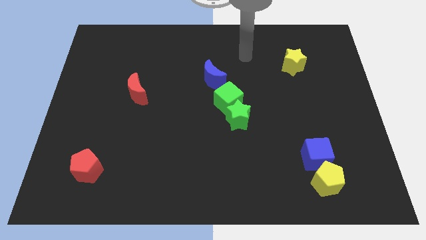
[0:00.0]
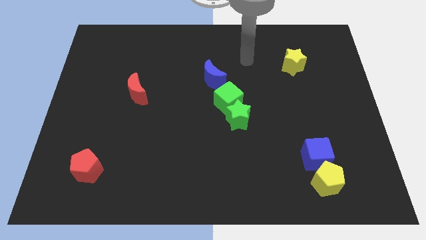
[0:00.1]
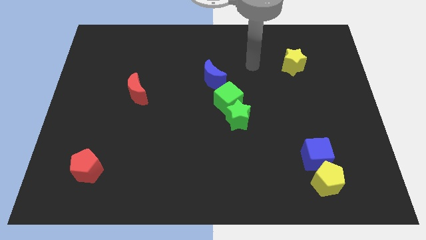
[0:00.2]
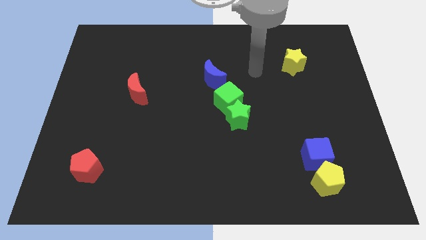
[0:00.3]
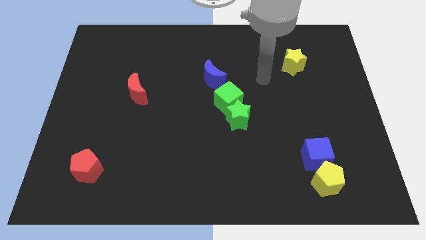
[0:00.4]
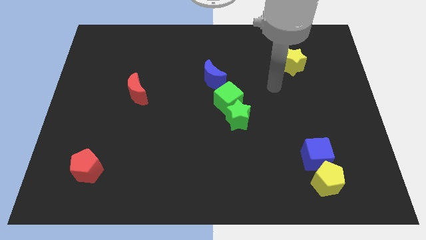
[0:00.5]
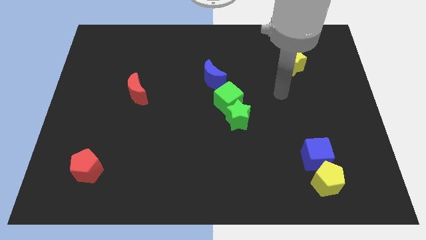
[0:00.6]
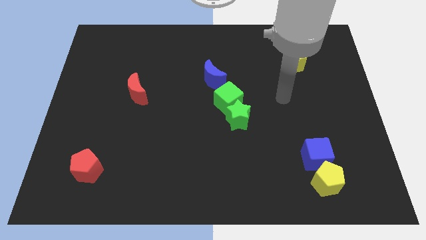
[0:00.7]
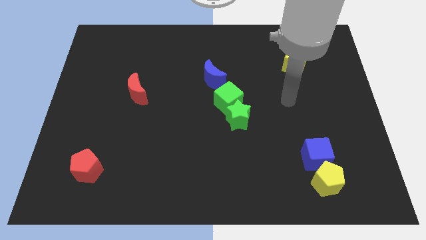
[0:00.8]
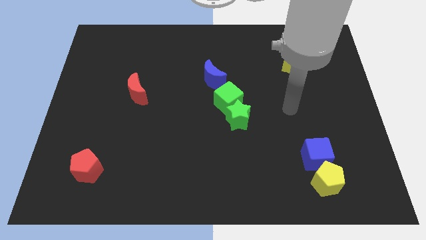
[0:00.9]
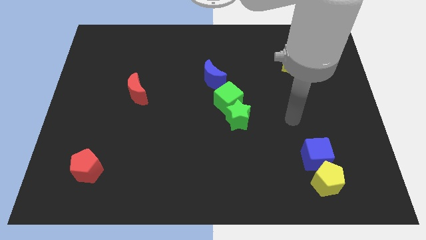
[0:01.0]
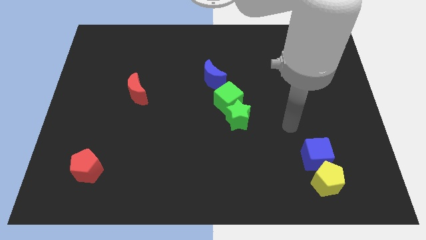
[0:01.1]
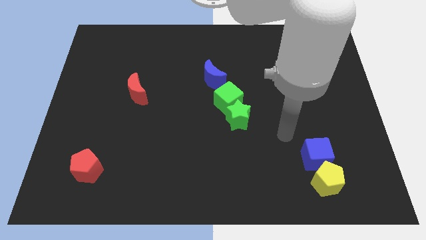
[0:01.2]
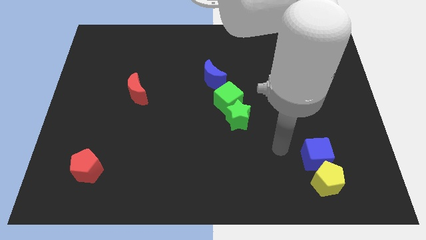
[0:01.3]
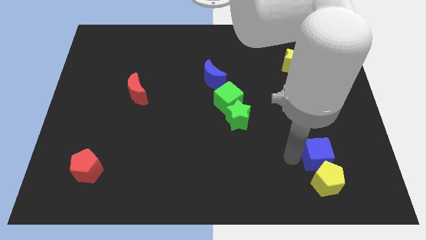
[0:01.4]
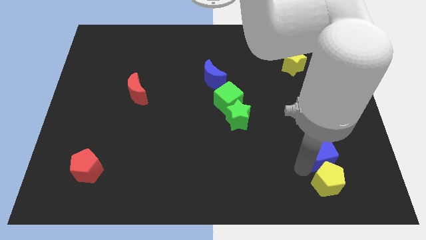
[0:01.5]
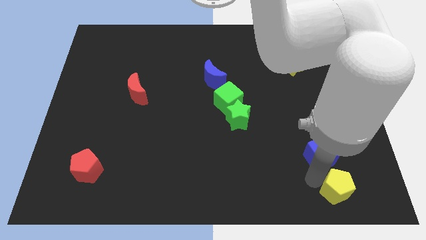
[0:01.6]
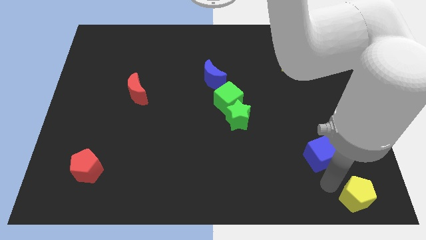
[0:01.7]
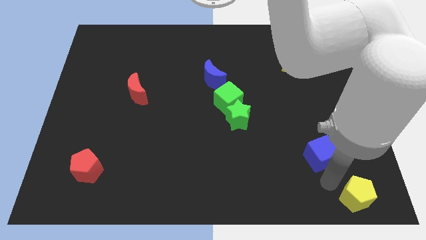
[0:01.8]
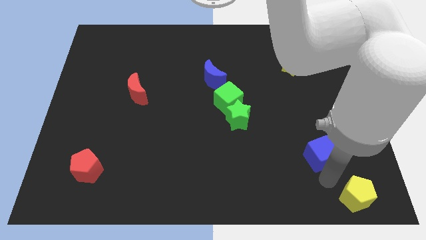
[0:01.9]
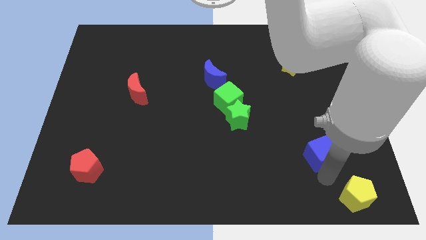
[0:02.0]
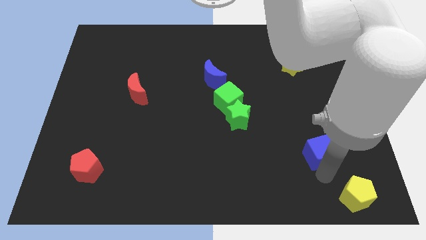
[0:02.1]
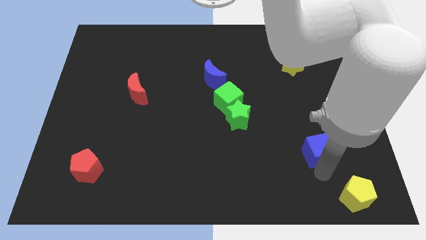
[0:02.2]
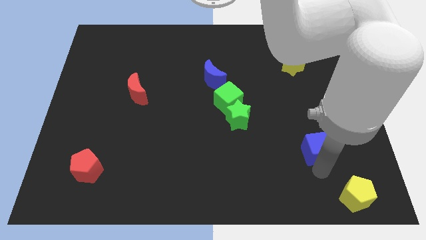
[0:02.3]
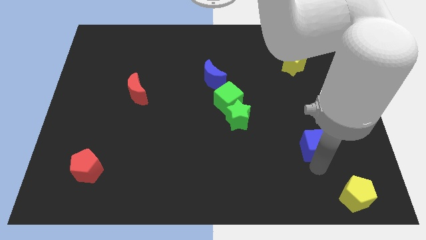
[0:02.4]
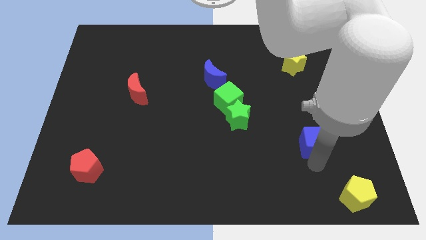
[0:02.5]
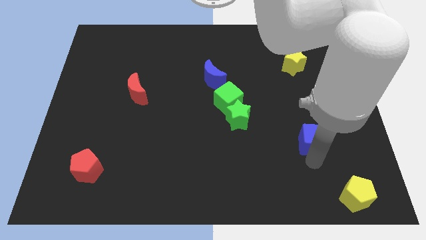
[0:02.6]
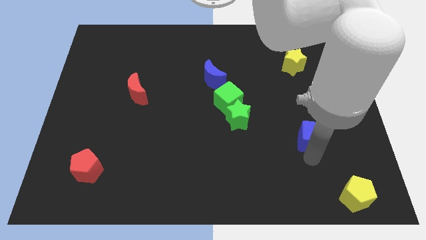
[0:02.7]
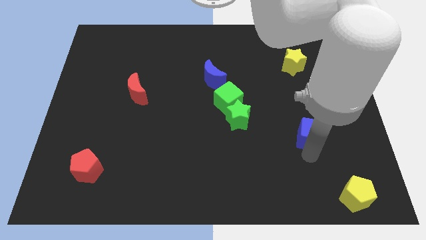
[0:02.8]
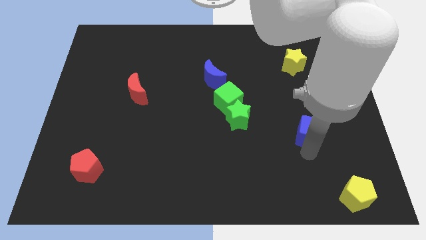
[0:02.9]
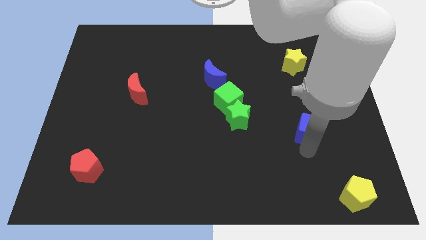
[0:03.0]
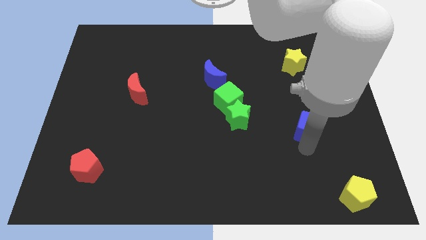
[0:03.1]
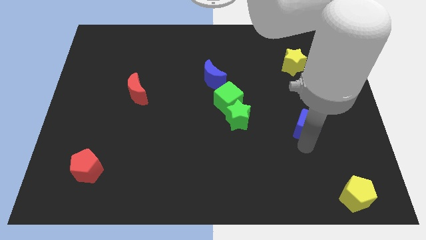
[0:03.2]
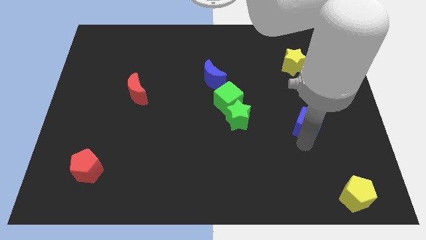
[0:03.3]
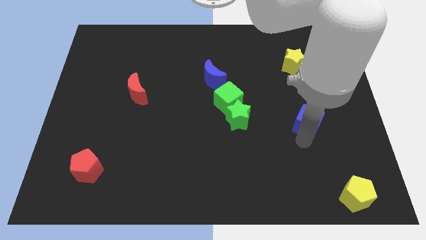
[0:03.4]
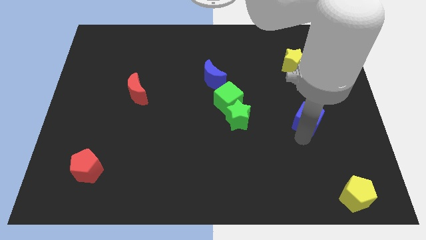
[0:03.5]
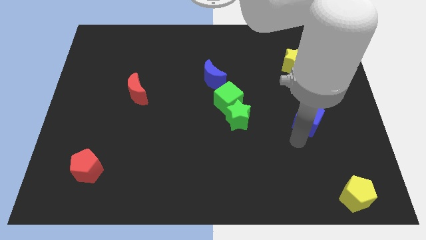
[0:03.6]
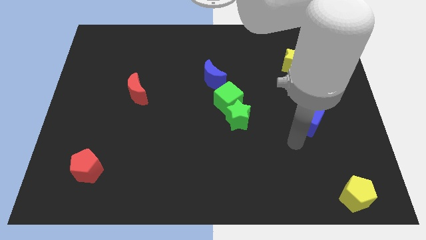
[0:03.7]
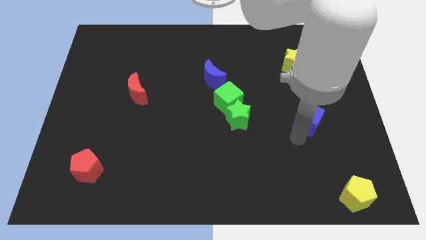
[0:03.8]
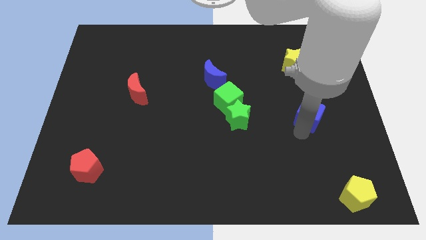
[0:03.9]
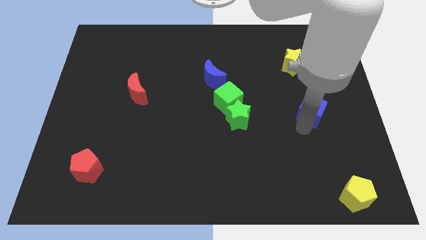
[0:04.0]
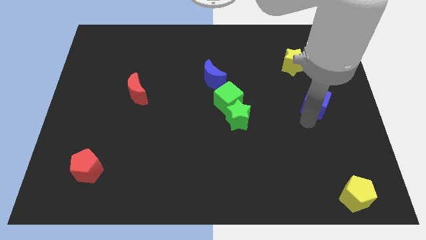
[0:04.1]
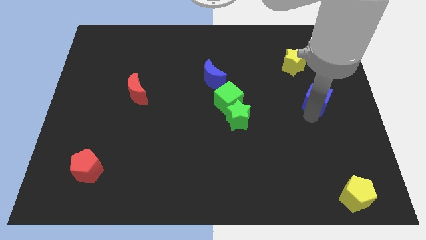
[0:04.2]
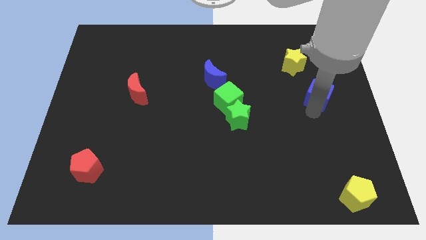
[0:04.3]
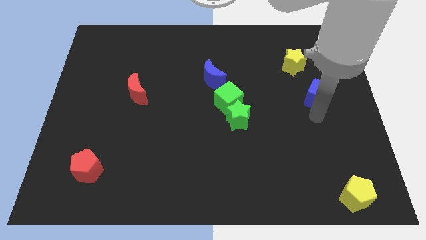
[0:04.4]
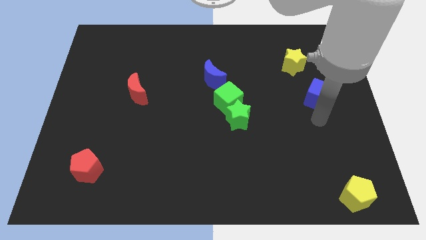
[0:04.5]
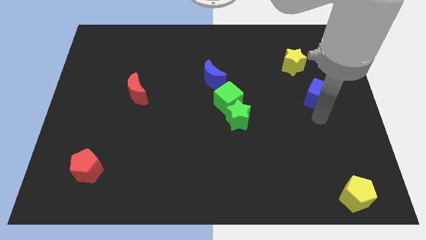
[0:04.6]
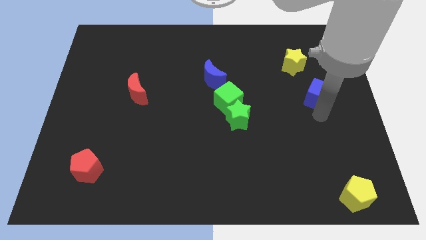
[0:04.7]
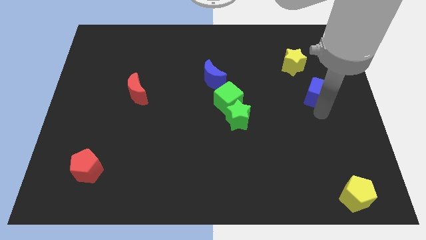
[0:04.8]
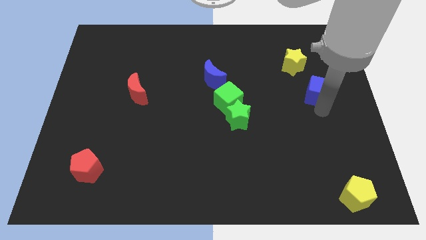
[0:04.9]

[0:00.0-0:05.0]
move the blue cube to the bottom right side of the yellow star

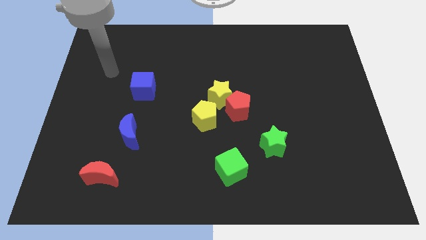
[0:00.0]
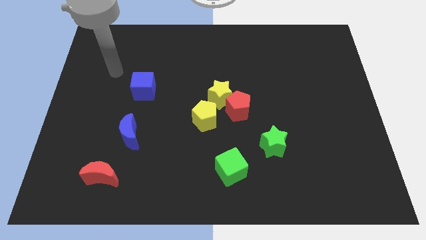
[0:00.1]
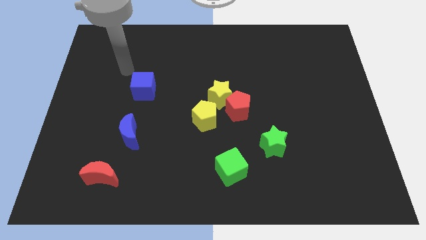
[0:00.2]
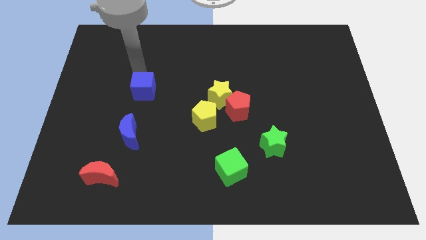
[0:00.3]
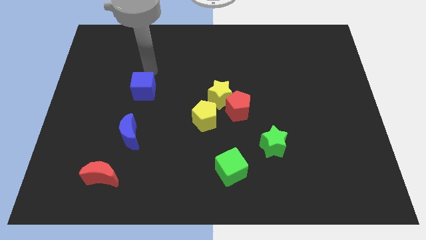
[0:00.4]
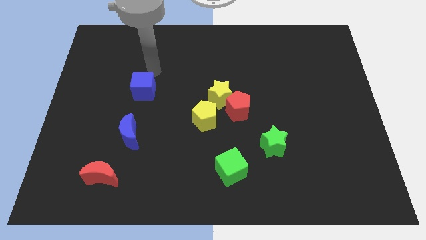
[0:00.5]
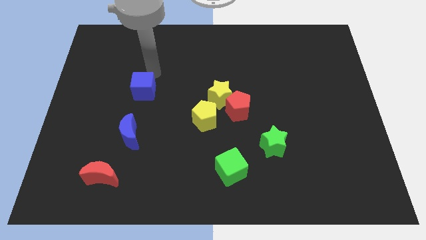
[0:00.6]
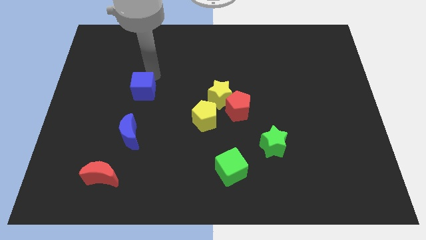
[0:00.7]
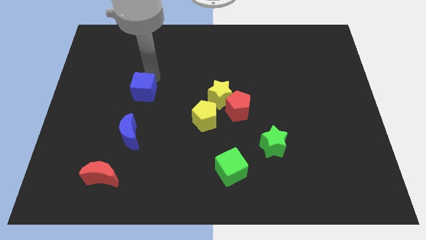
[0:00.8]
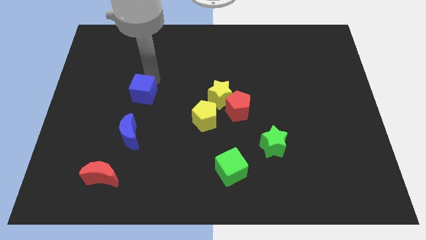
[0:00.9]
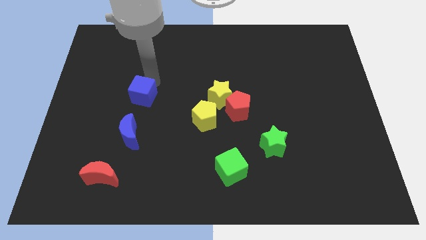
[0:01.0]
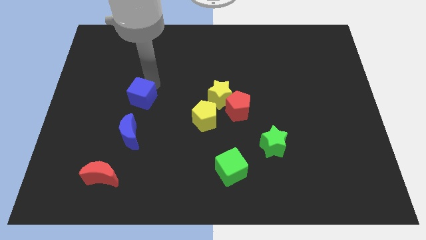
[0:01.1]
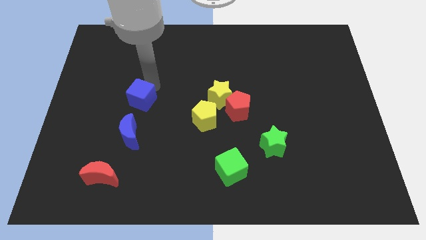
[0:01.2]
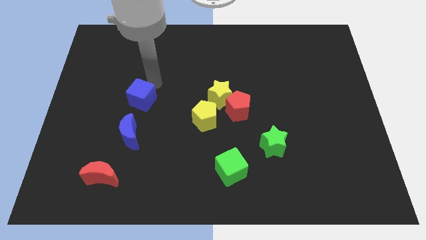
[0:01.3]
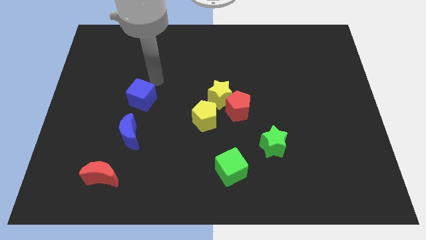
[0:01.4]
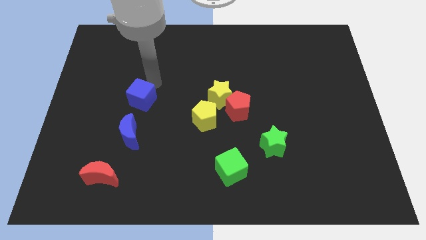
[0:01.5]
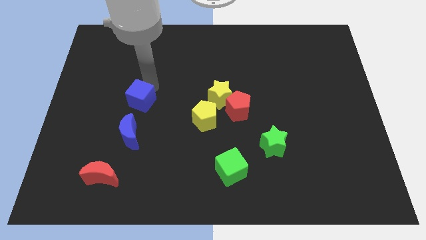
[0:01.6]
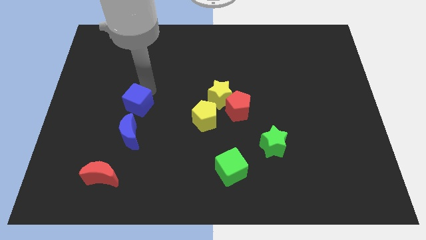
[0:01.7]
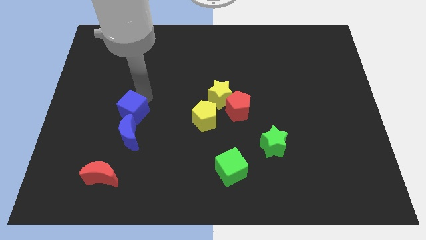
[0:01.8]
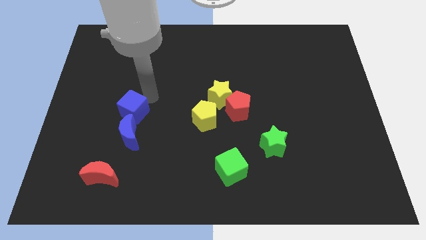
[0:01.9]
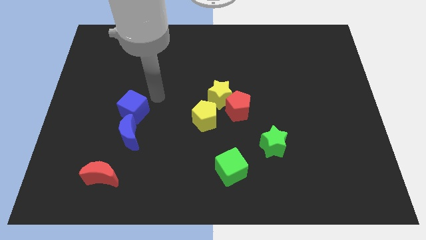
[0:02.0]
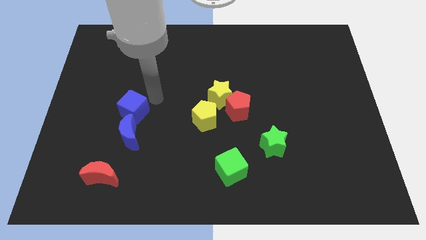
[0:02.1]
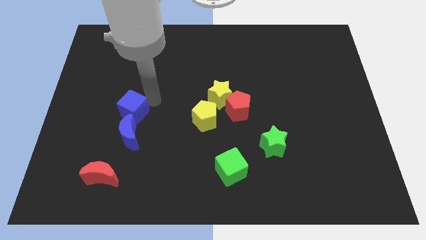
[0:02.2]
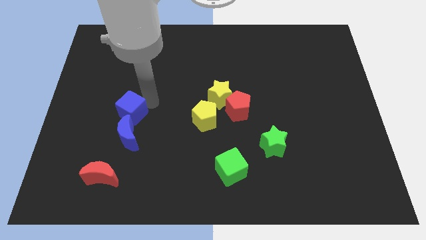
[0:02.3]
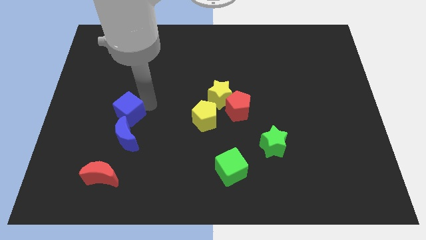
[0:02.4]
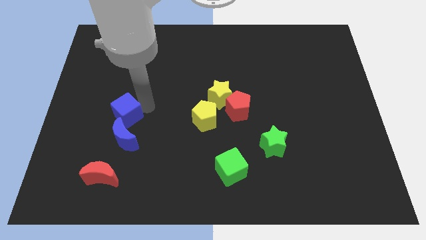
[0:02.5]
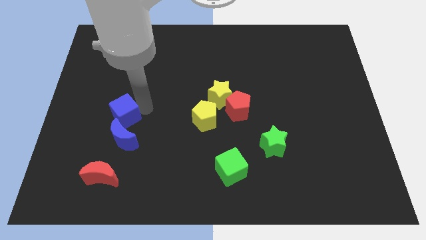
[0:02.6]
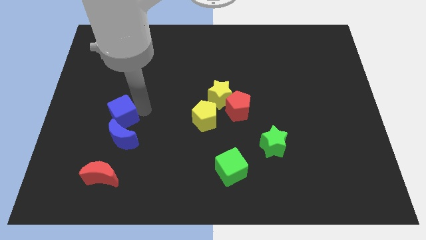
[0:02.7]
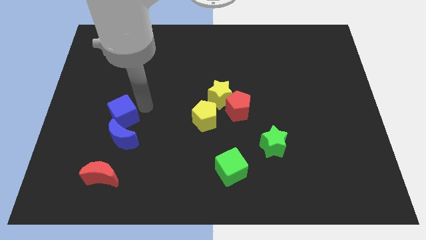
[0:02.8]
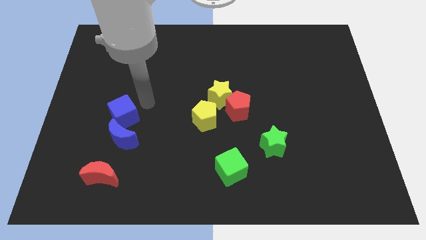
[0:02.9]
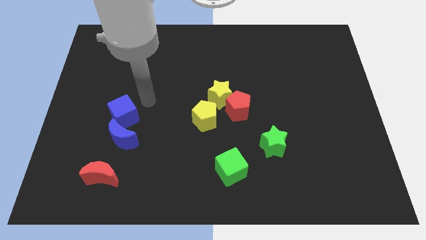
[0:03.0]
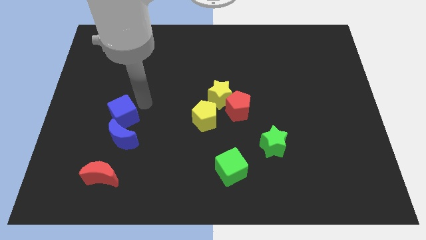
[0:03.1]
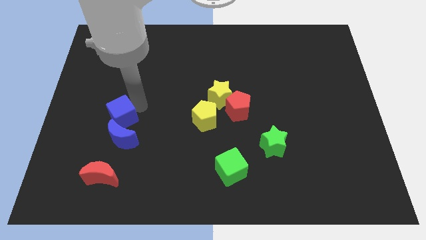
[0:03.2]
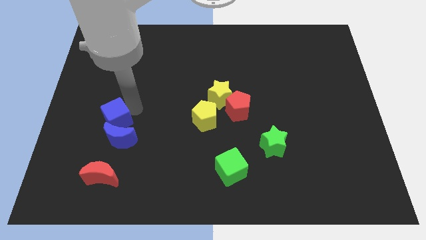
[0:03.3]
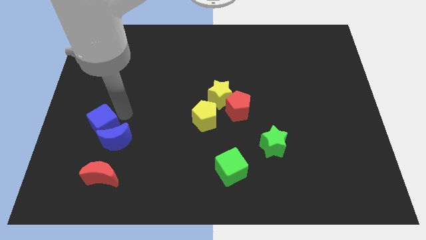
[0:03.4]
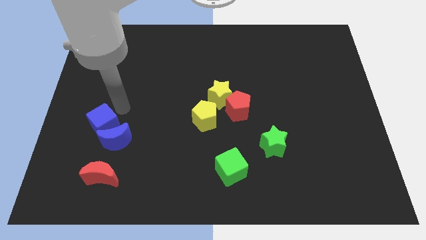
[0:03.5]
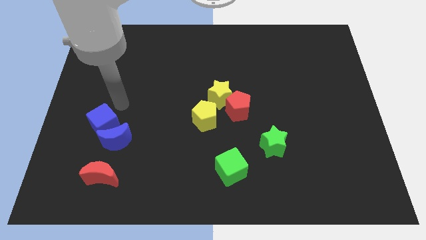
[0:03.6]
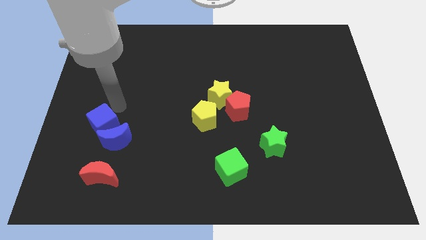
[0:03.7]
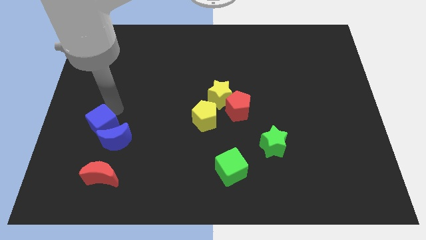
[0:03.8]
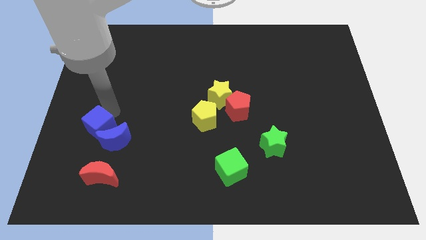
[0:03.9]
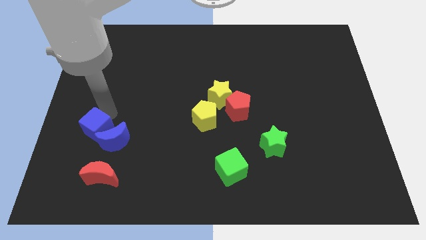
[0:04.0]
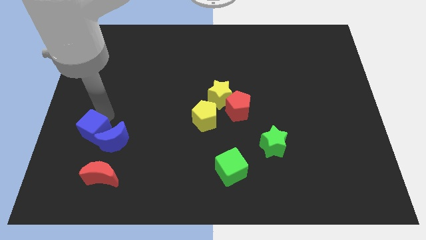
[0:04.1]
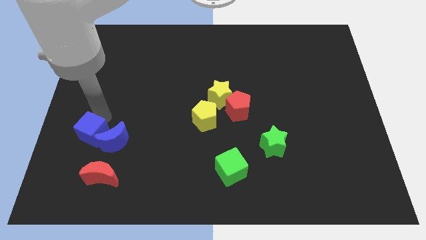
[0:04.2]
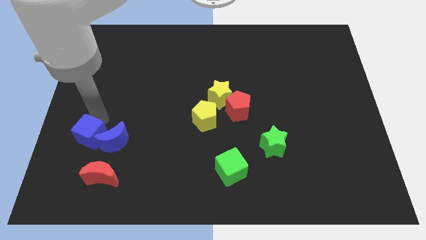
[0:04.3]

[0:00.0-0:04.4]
push the blue cube to the top left of the red moon
